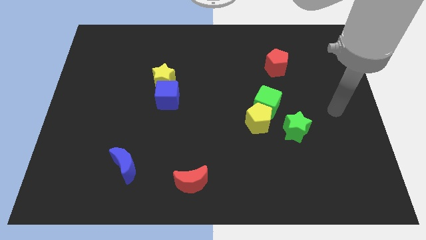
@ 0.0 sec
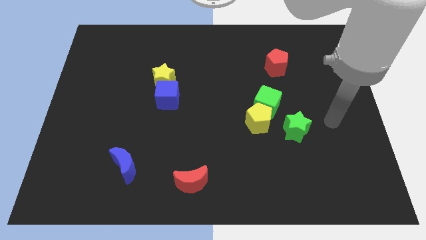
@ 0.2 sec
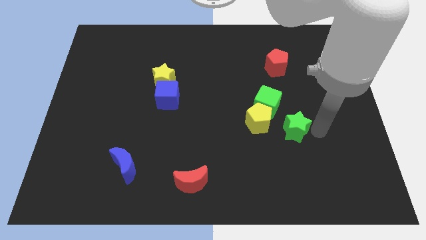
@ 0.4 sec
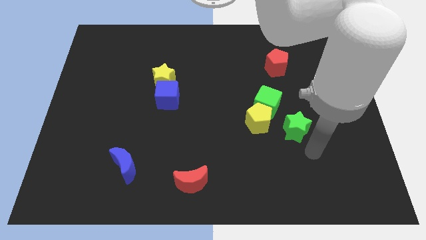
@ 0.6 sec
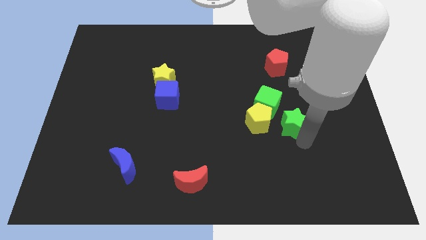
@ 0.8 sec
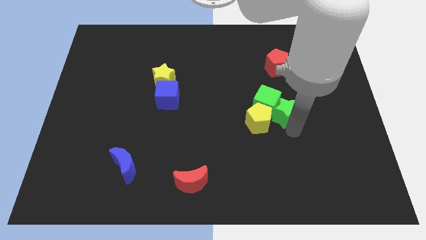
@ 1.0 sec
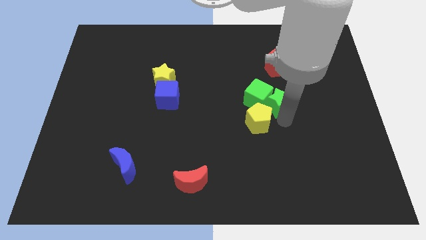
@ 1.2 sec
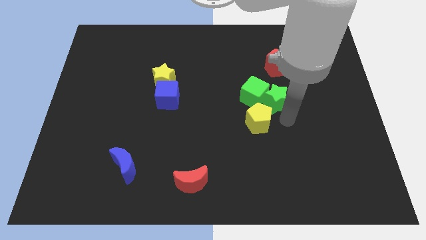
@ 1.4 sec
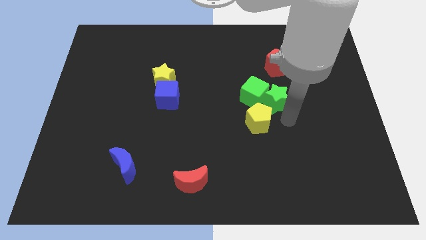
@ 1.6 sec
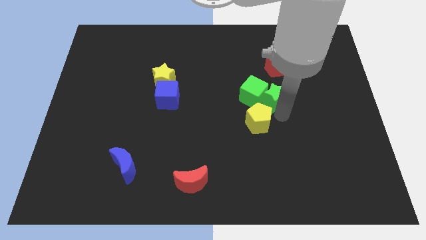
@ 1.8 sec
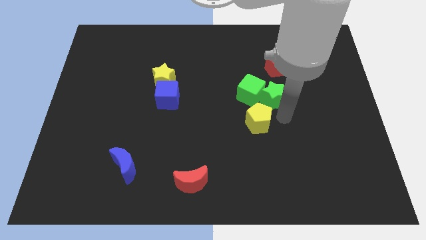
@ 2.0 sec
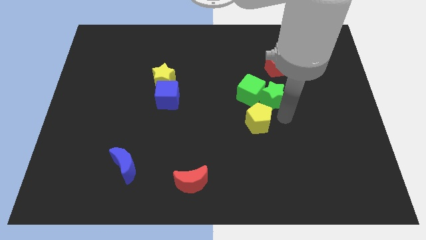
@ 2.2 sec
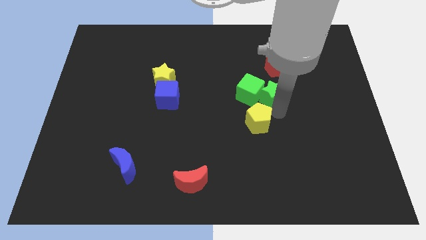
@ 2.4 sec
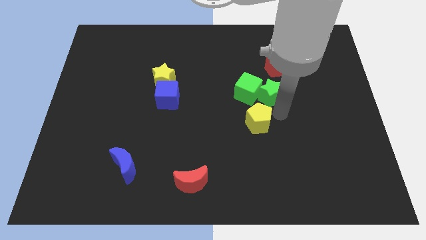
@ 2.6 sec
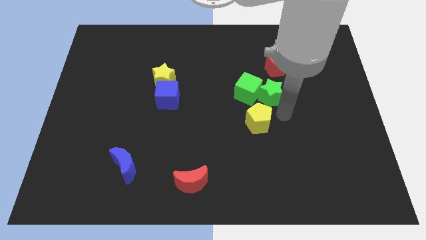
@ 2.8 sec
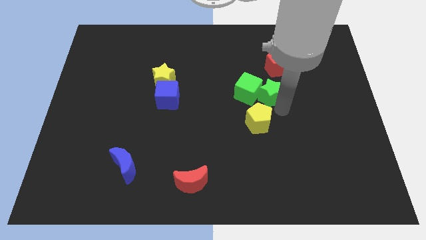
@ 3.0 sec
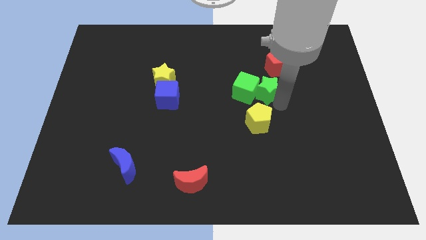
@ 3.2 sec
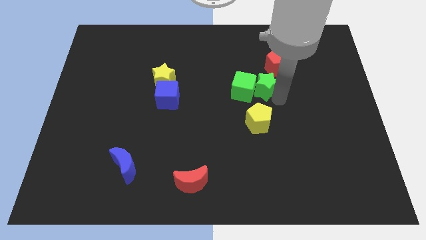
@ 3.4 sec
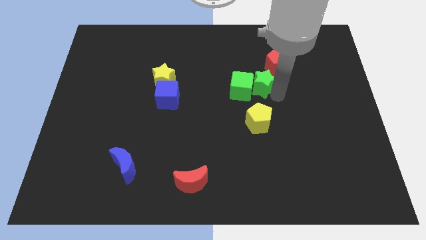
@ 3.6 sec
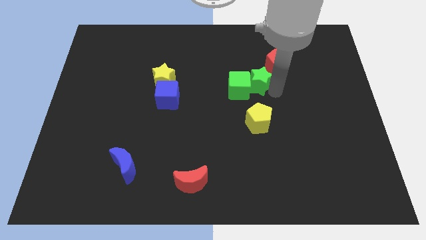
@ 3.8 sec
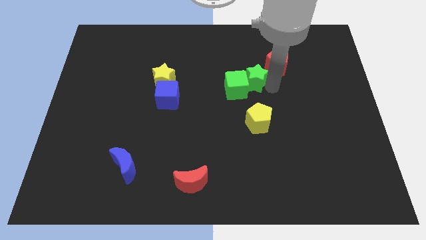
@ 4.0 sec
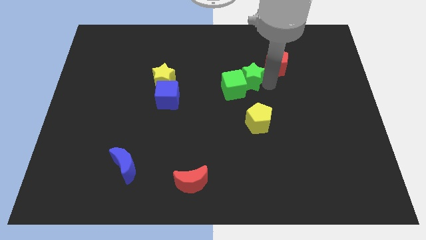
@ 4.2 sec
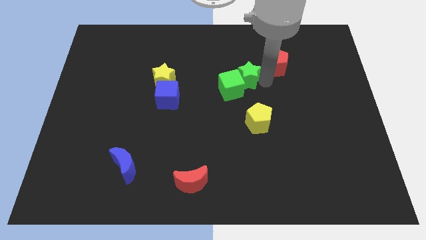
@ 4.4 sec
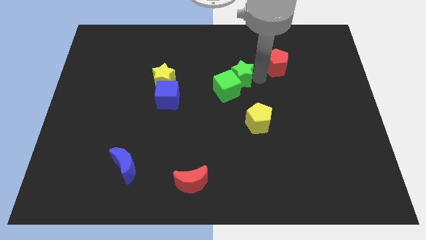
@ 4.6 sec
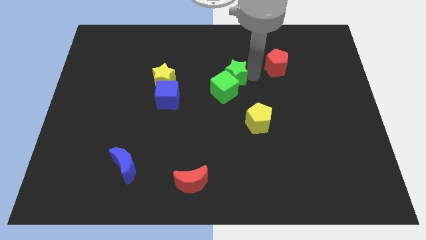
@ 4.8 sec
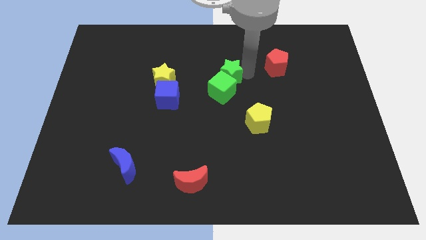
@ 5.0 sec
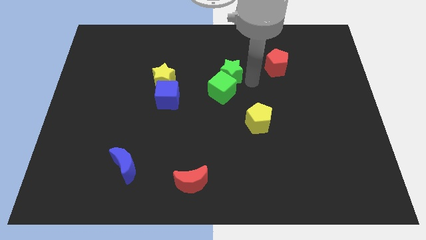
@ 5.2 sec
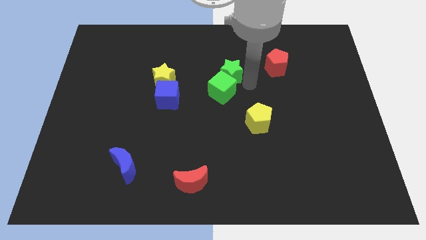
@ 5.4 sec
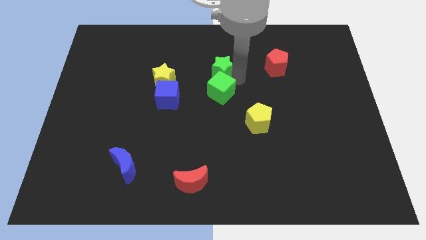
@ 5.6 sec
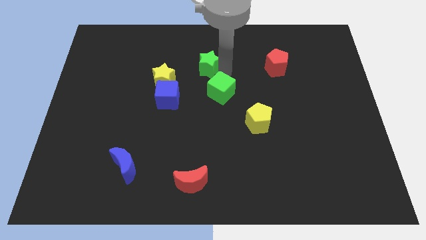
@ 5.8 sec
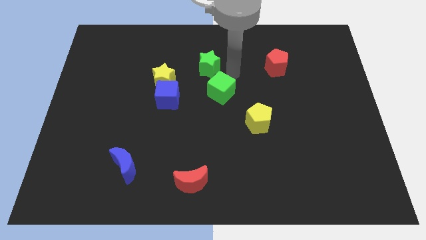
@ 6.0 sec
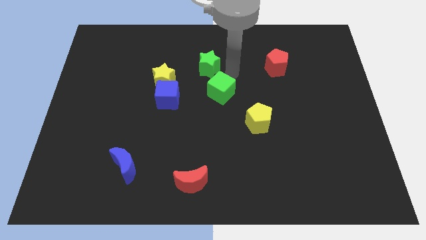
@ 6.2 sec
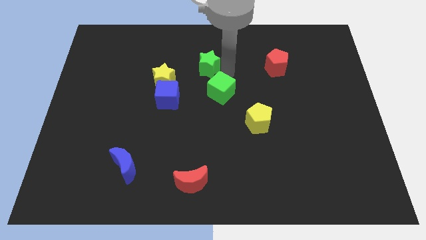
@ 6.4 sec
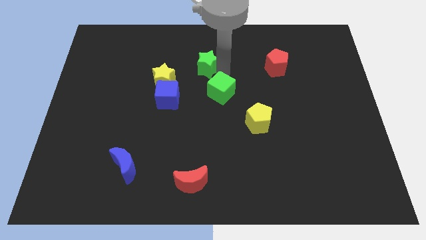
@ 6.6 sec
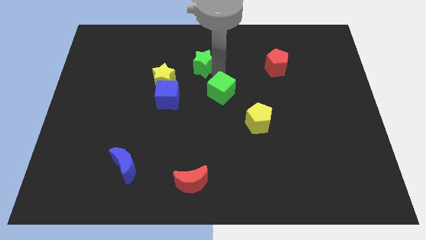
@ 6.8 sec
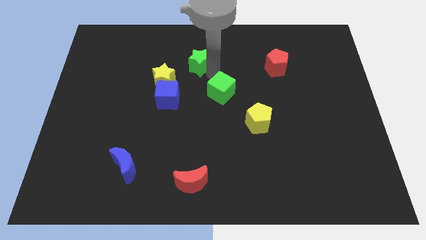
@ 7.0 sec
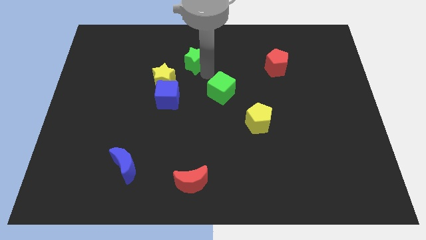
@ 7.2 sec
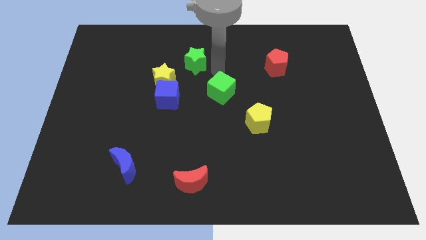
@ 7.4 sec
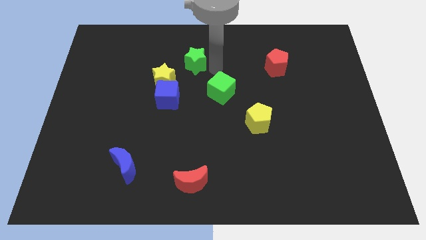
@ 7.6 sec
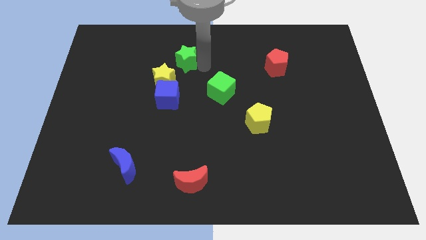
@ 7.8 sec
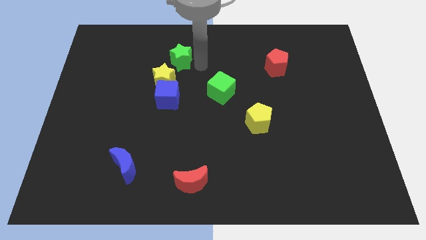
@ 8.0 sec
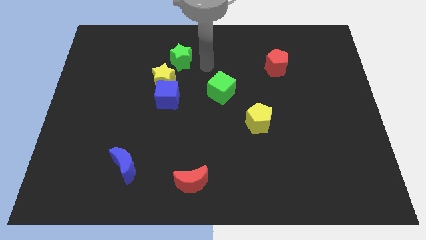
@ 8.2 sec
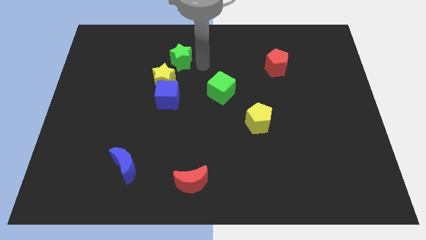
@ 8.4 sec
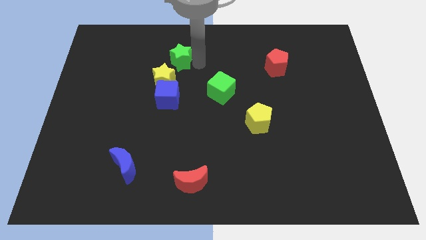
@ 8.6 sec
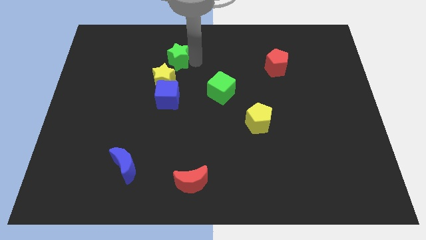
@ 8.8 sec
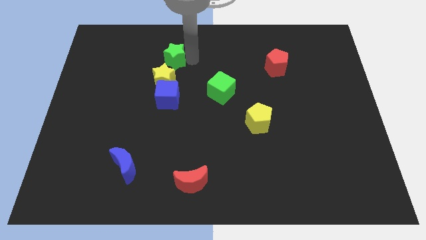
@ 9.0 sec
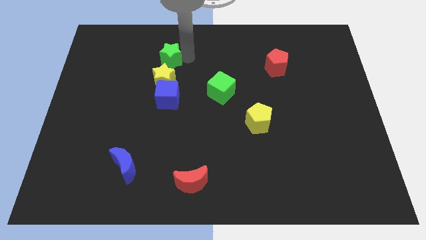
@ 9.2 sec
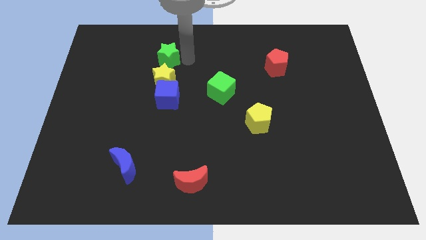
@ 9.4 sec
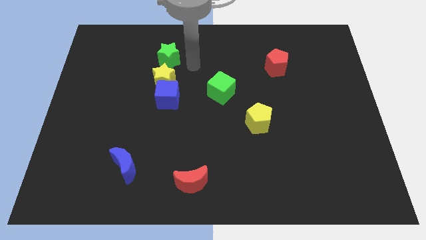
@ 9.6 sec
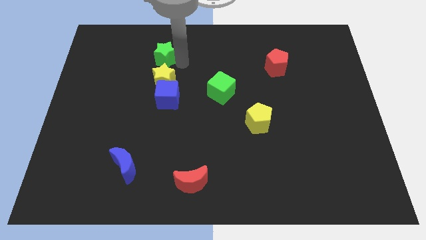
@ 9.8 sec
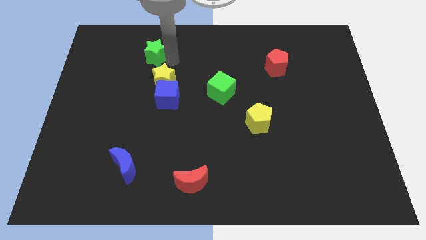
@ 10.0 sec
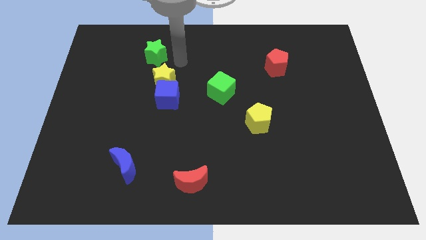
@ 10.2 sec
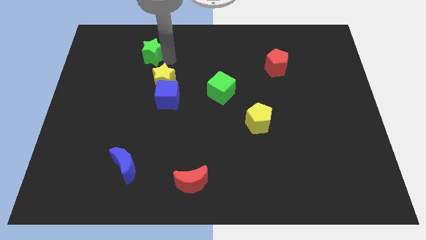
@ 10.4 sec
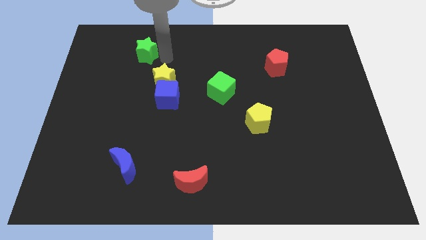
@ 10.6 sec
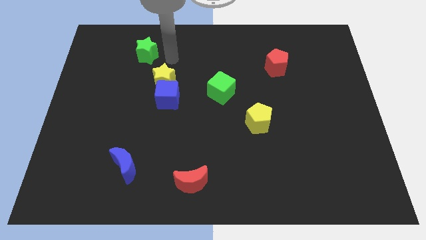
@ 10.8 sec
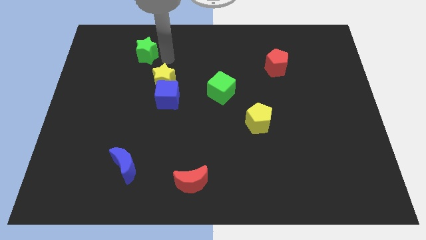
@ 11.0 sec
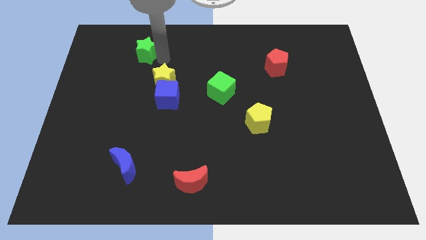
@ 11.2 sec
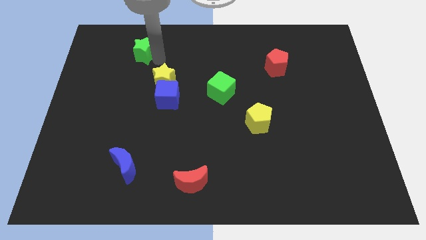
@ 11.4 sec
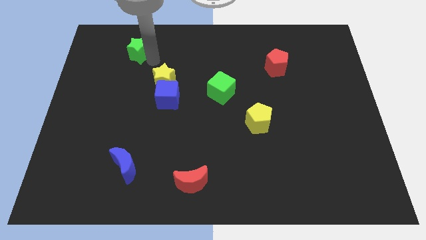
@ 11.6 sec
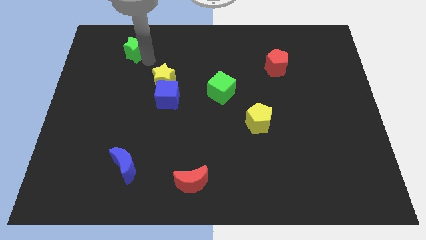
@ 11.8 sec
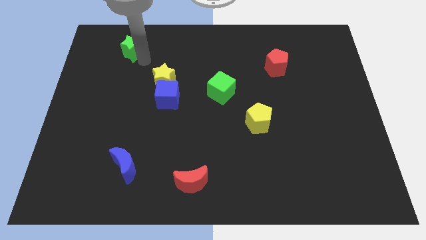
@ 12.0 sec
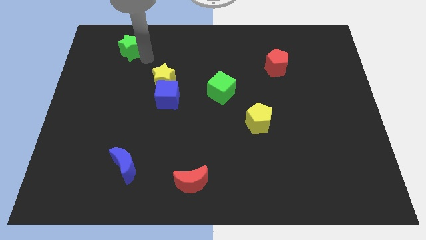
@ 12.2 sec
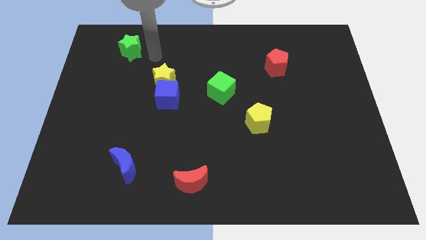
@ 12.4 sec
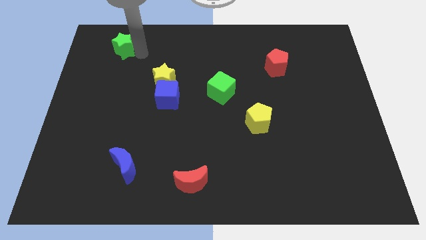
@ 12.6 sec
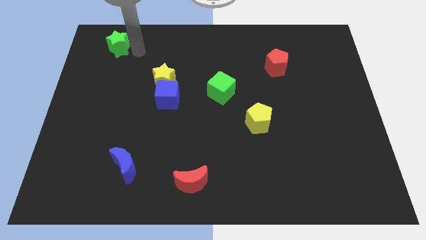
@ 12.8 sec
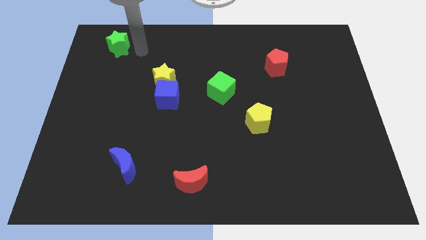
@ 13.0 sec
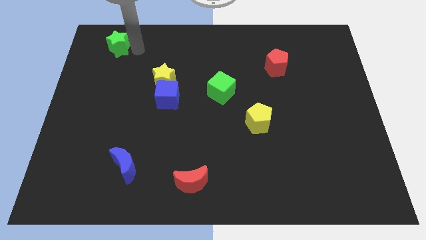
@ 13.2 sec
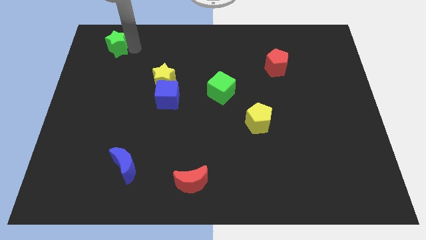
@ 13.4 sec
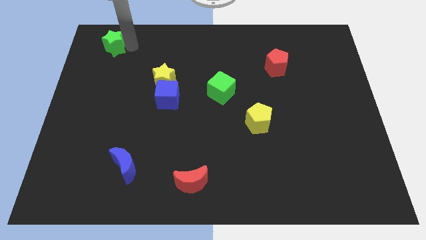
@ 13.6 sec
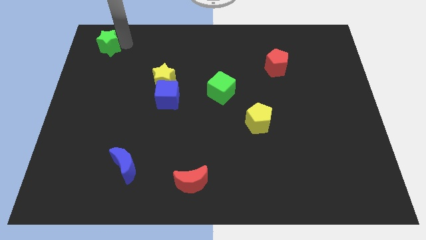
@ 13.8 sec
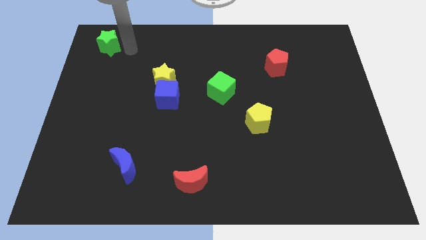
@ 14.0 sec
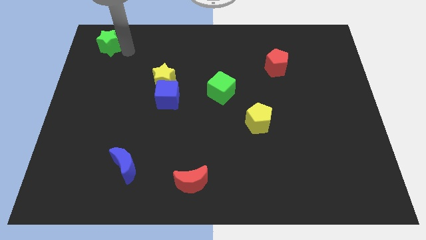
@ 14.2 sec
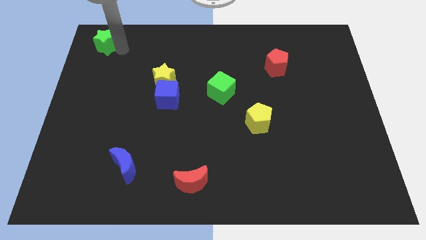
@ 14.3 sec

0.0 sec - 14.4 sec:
push the green star to the upper left corner
